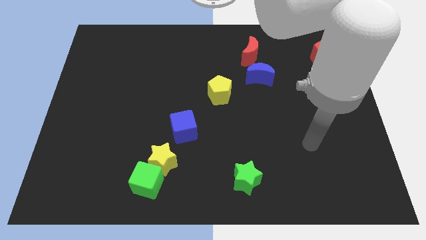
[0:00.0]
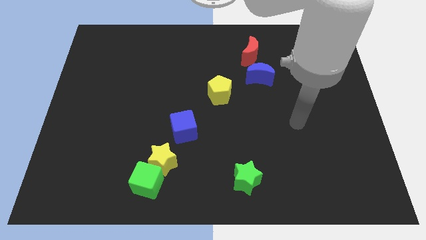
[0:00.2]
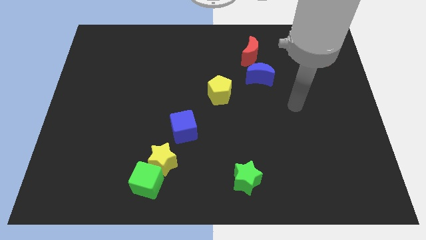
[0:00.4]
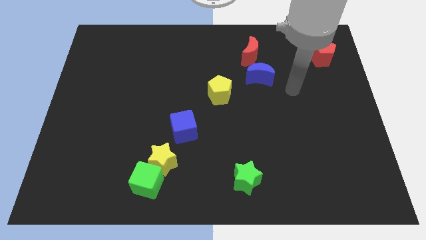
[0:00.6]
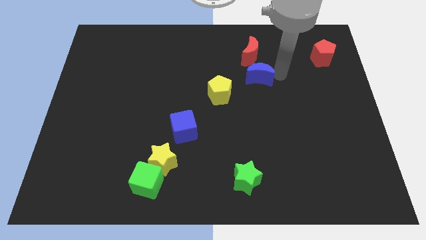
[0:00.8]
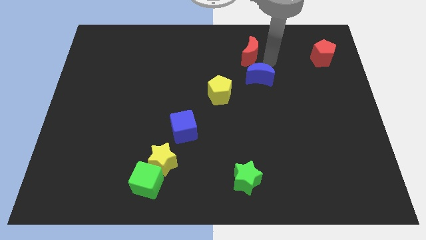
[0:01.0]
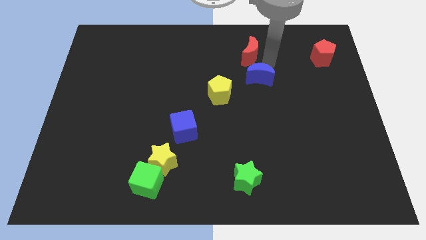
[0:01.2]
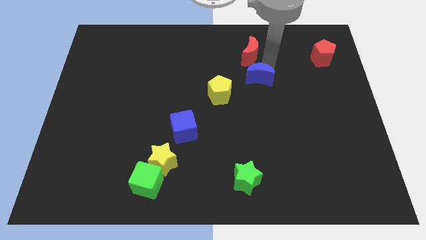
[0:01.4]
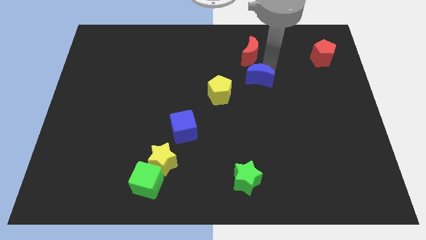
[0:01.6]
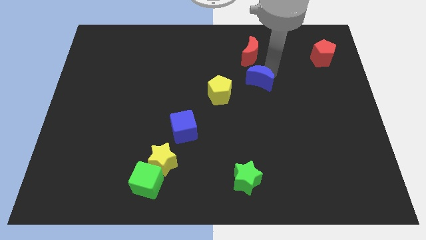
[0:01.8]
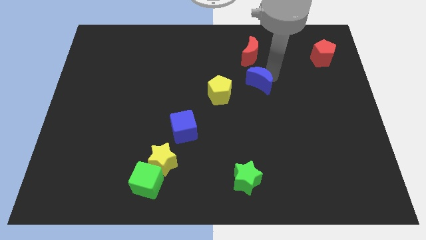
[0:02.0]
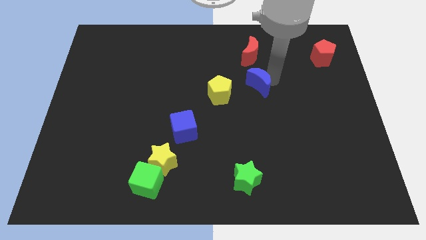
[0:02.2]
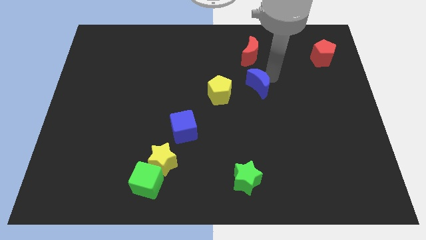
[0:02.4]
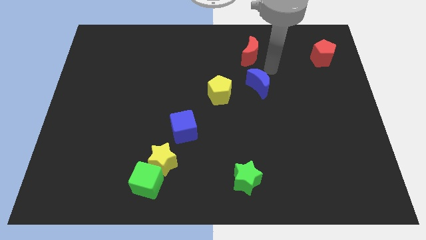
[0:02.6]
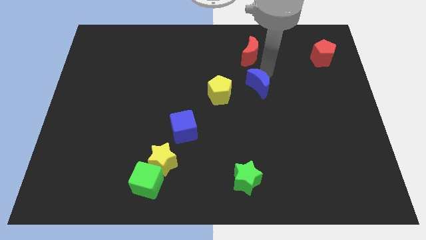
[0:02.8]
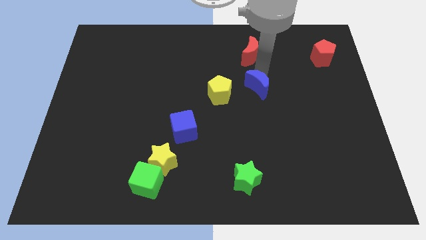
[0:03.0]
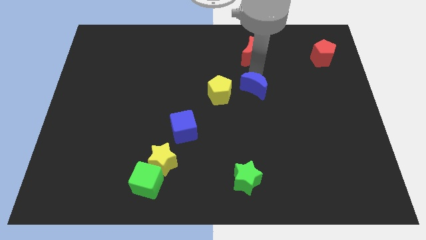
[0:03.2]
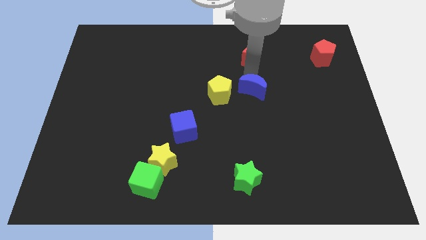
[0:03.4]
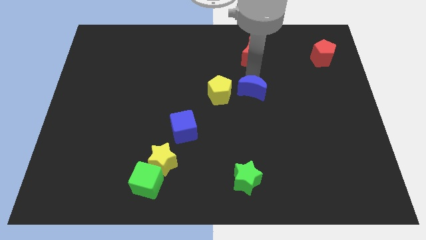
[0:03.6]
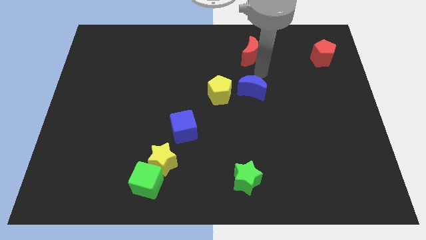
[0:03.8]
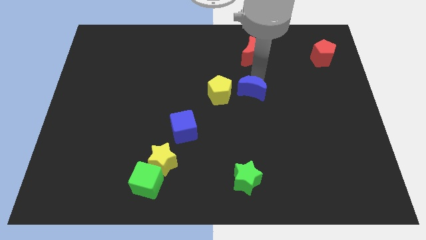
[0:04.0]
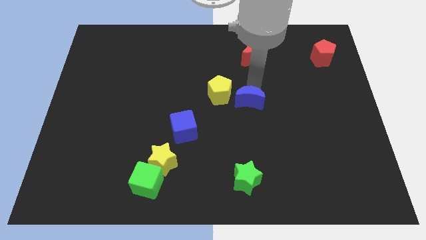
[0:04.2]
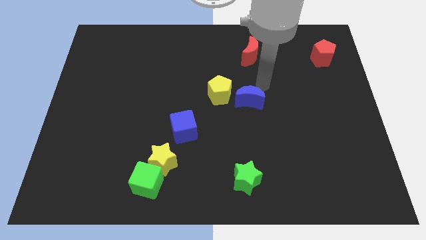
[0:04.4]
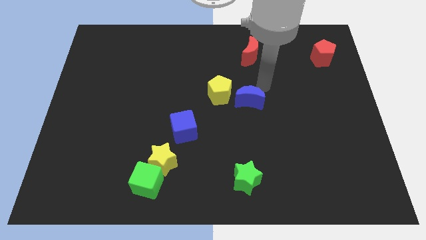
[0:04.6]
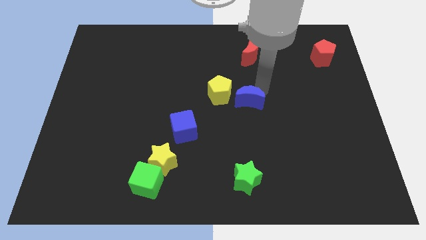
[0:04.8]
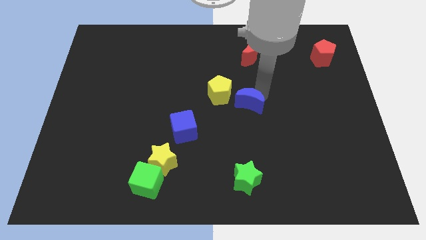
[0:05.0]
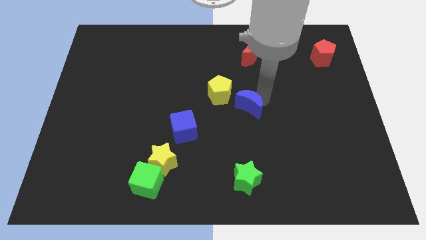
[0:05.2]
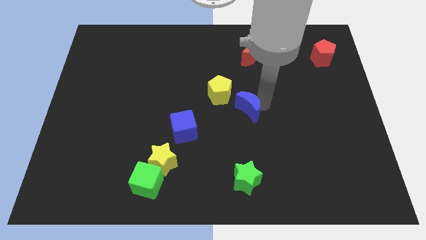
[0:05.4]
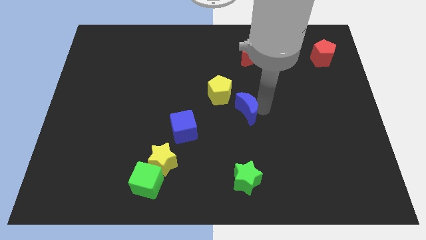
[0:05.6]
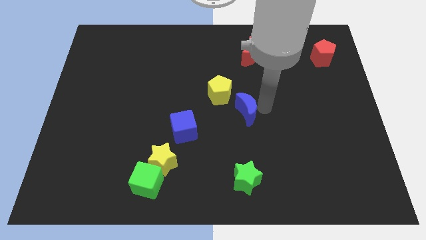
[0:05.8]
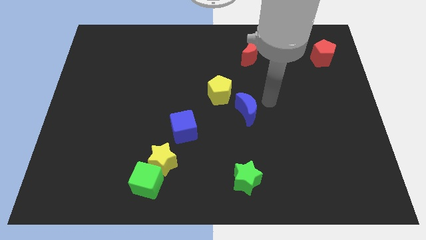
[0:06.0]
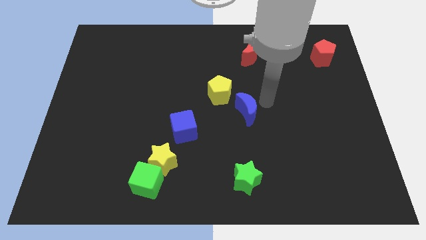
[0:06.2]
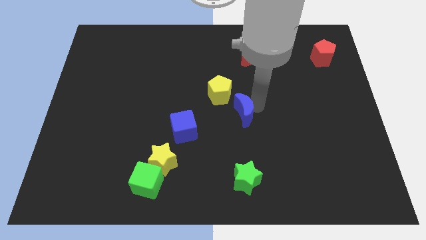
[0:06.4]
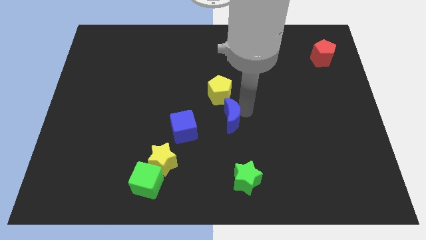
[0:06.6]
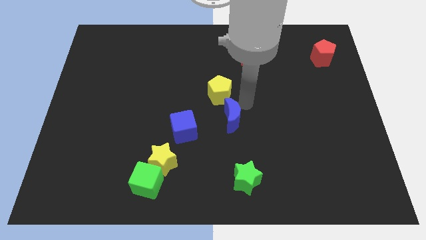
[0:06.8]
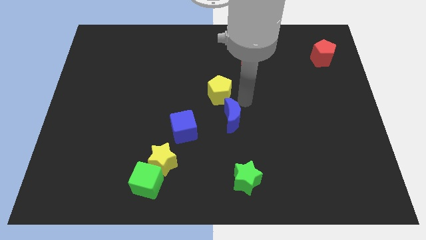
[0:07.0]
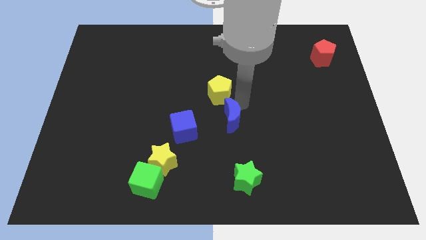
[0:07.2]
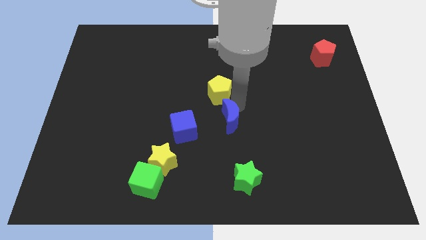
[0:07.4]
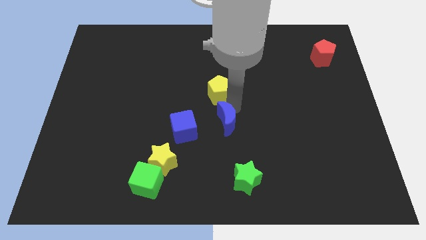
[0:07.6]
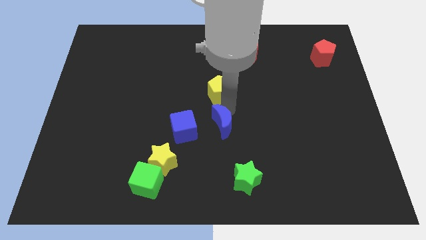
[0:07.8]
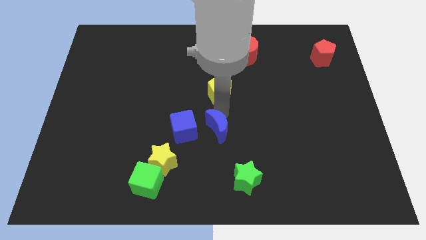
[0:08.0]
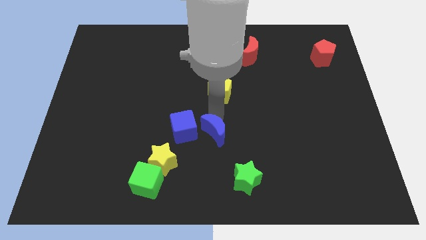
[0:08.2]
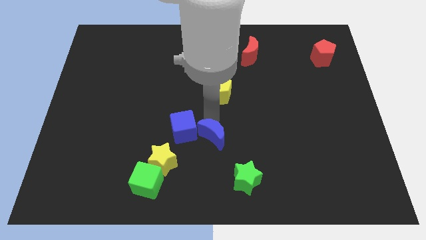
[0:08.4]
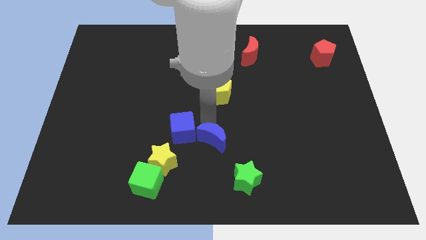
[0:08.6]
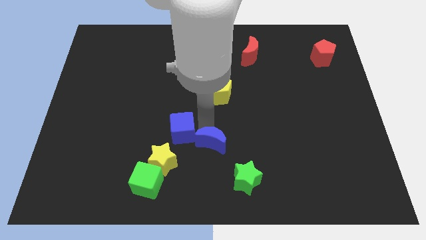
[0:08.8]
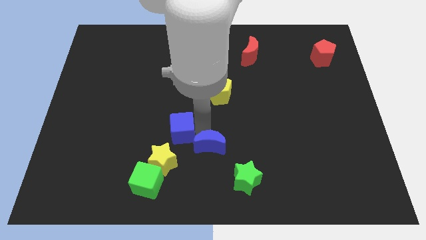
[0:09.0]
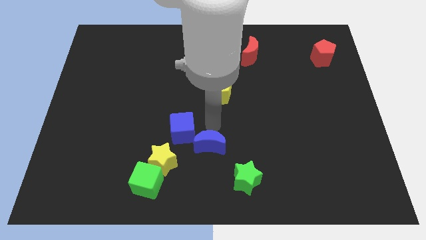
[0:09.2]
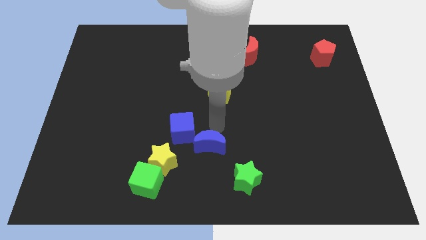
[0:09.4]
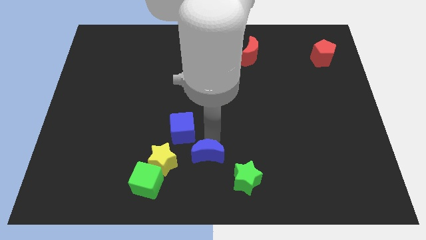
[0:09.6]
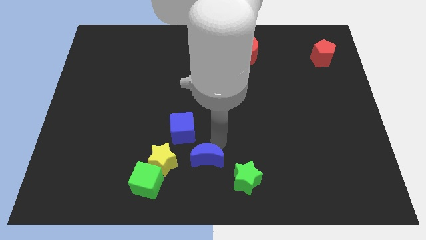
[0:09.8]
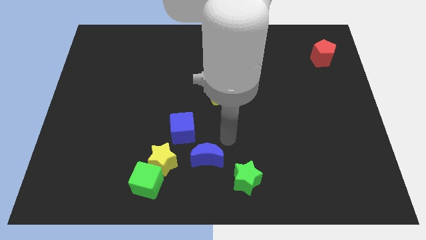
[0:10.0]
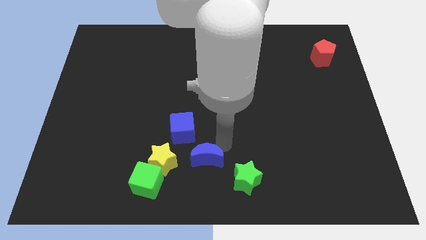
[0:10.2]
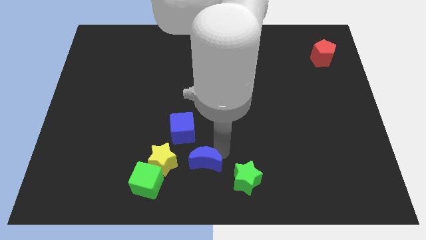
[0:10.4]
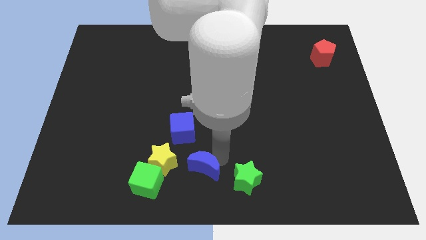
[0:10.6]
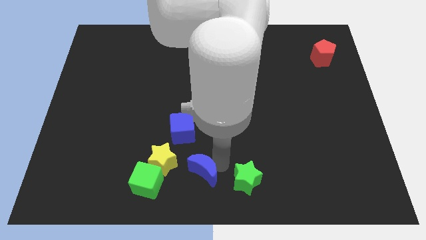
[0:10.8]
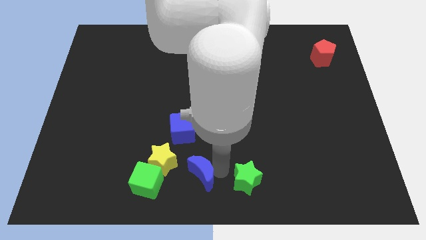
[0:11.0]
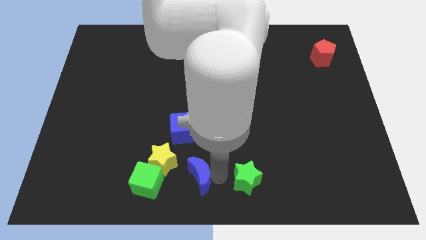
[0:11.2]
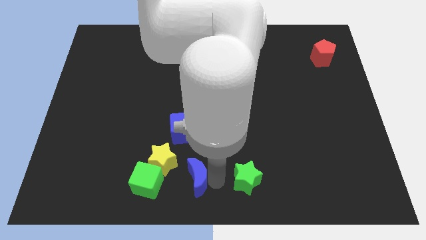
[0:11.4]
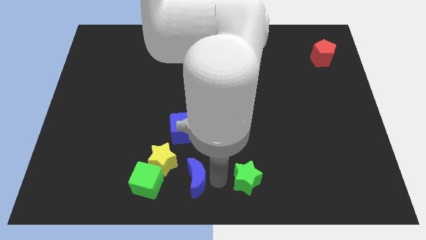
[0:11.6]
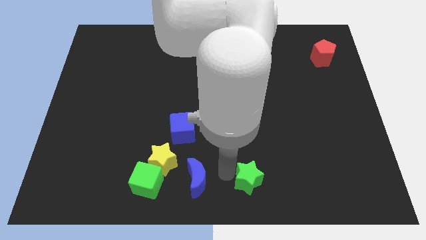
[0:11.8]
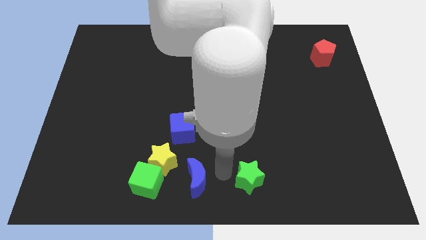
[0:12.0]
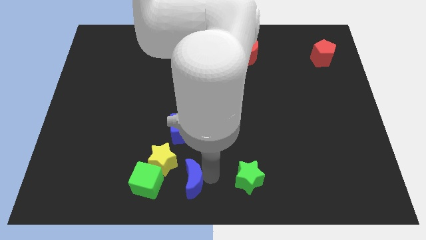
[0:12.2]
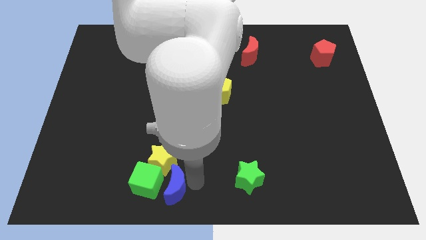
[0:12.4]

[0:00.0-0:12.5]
put the blue moon next to the green cube
